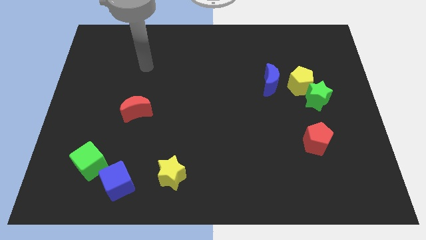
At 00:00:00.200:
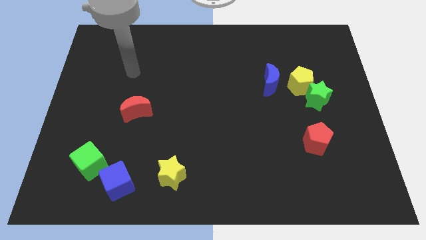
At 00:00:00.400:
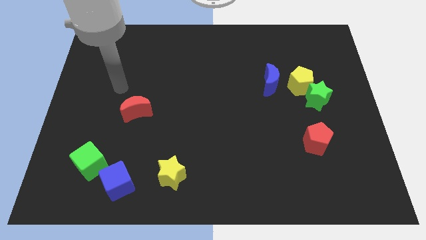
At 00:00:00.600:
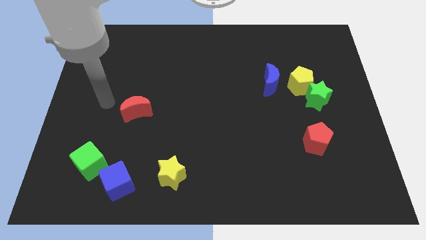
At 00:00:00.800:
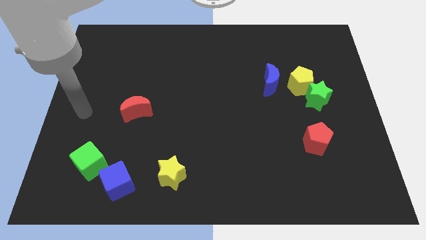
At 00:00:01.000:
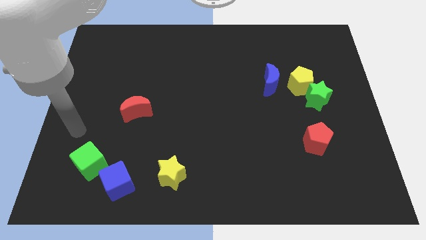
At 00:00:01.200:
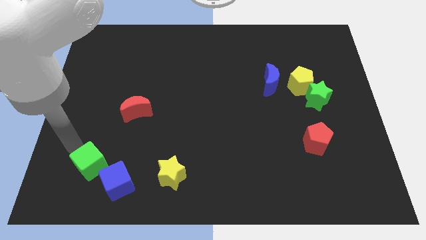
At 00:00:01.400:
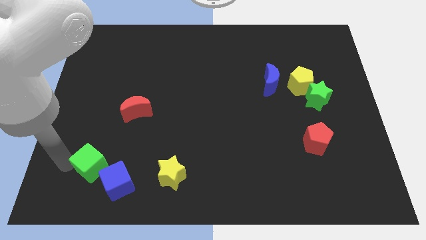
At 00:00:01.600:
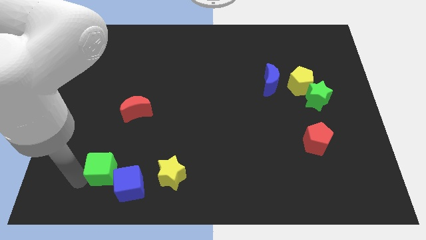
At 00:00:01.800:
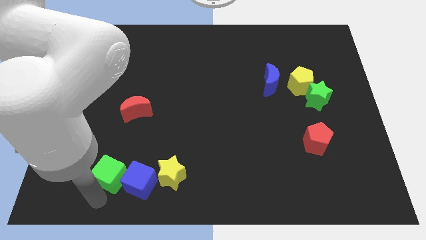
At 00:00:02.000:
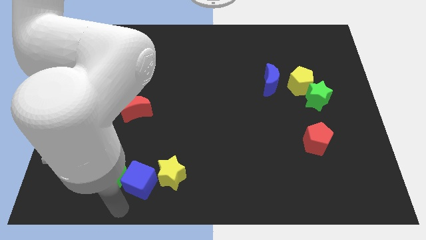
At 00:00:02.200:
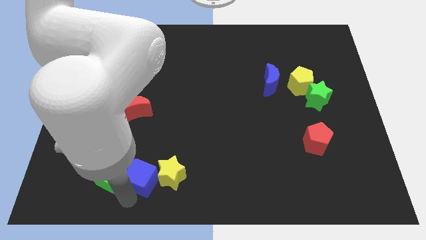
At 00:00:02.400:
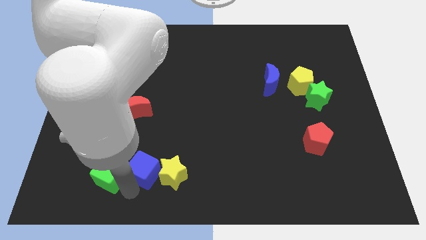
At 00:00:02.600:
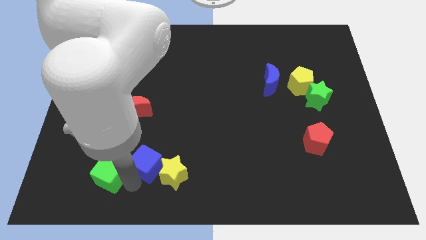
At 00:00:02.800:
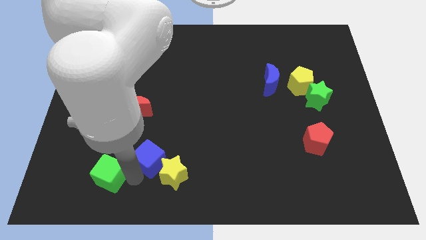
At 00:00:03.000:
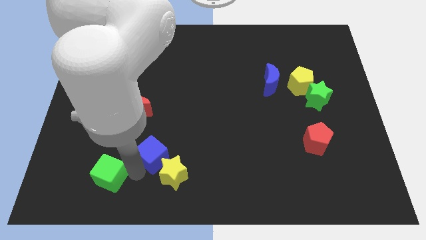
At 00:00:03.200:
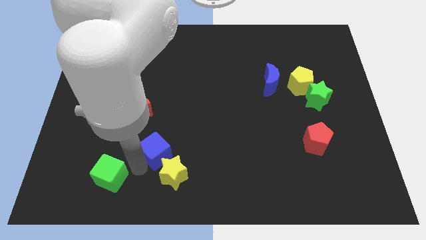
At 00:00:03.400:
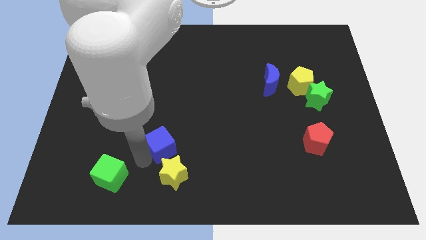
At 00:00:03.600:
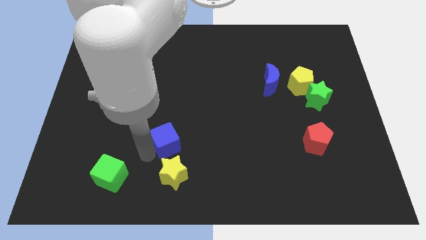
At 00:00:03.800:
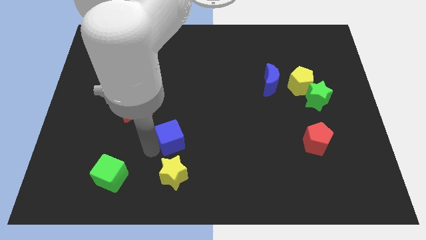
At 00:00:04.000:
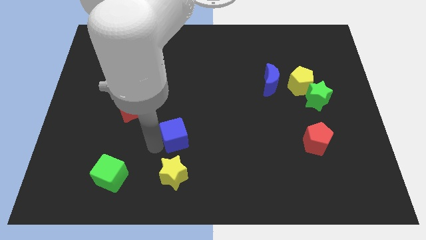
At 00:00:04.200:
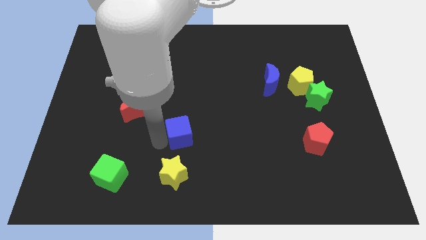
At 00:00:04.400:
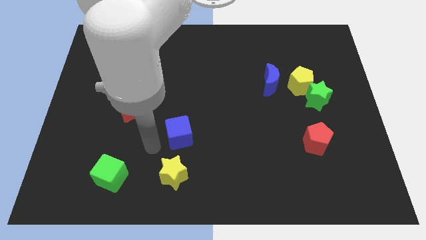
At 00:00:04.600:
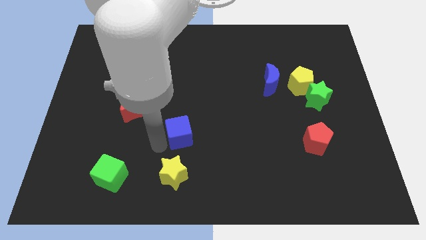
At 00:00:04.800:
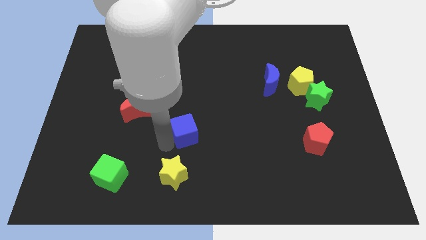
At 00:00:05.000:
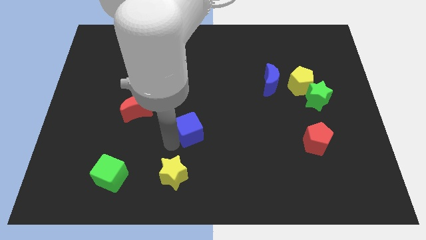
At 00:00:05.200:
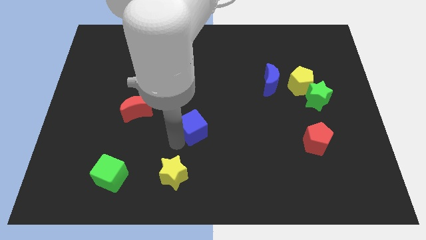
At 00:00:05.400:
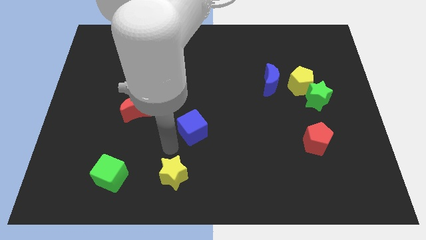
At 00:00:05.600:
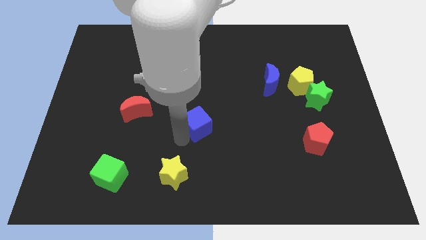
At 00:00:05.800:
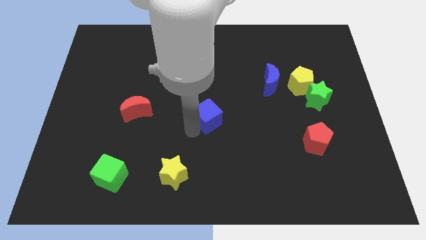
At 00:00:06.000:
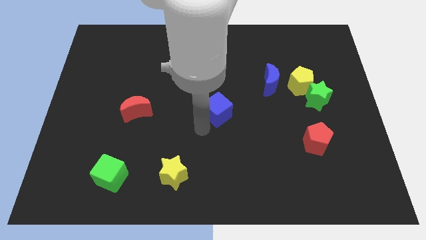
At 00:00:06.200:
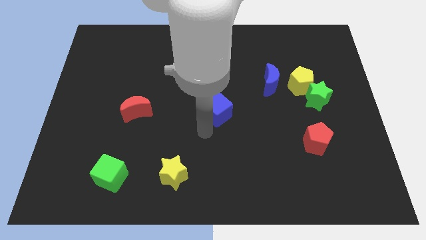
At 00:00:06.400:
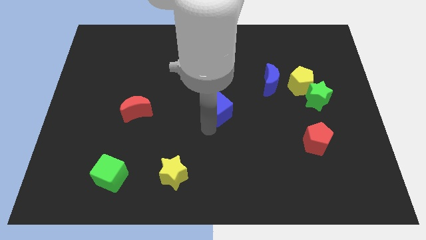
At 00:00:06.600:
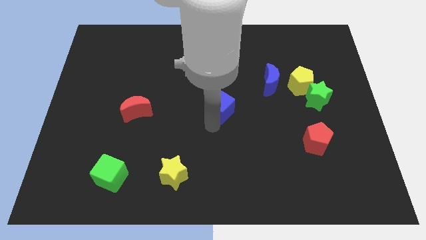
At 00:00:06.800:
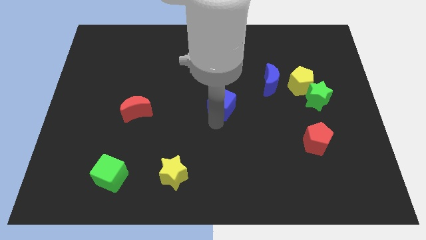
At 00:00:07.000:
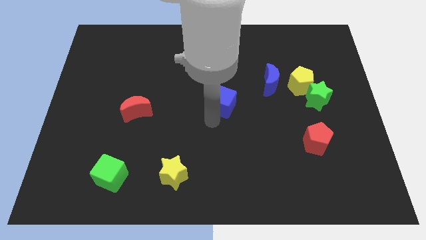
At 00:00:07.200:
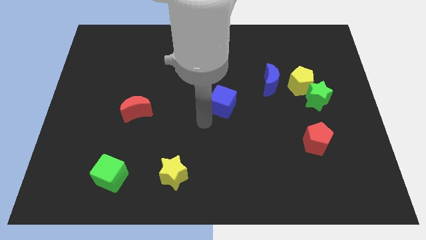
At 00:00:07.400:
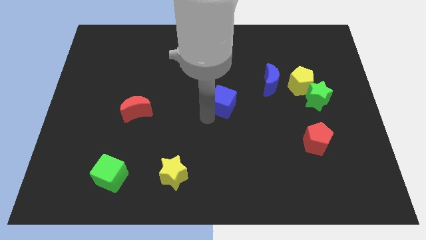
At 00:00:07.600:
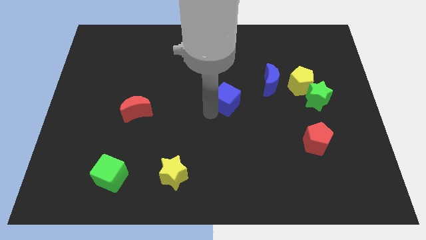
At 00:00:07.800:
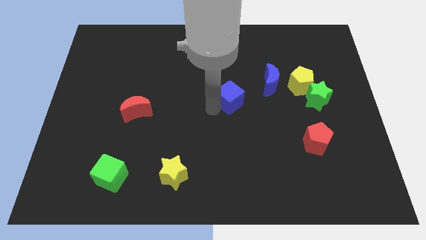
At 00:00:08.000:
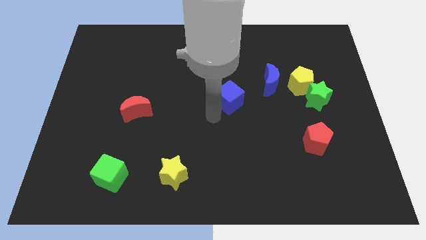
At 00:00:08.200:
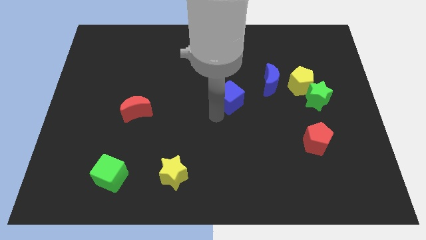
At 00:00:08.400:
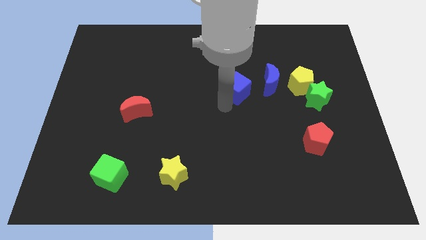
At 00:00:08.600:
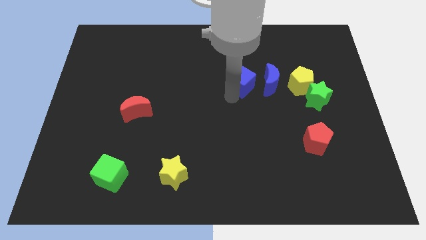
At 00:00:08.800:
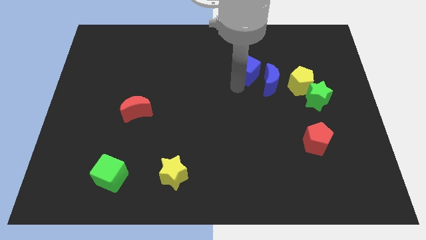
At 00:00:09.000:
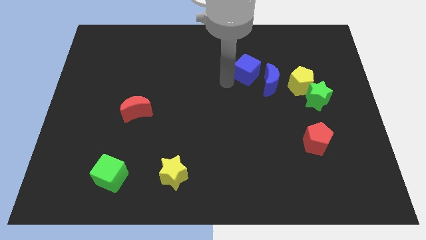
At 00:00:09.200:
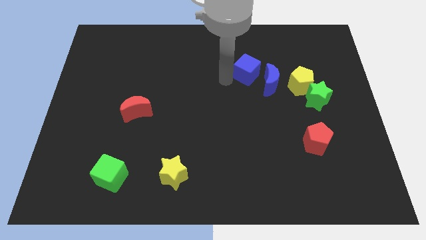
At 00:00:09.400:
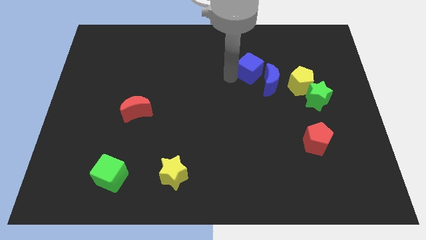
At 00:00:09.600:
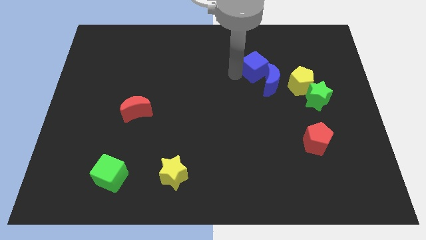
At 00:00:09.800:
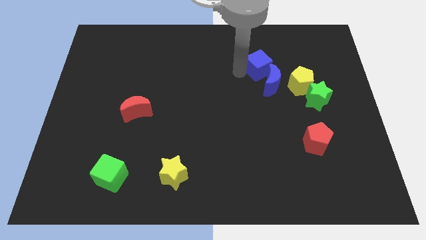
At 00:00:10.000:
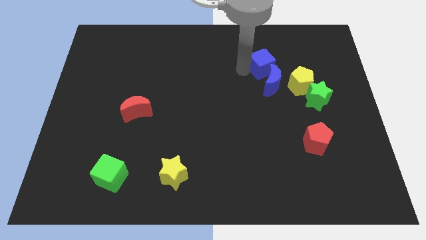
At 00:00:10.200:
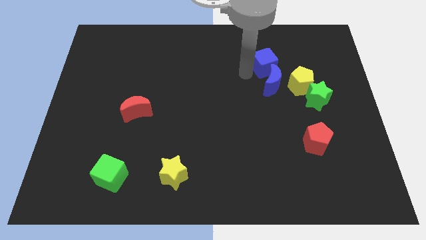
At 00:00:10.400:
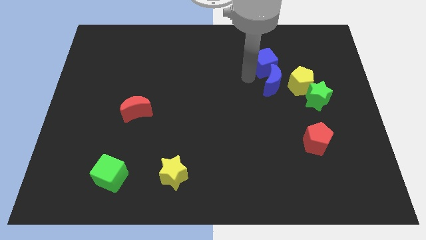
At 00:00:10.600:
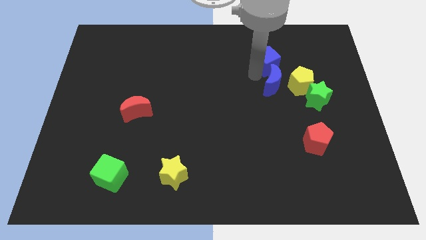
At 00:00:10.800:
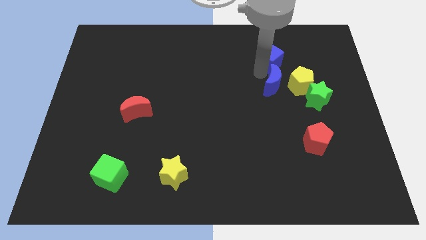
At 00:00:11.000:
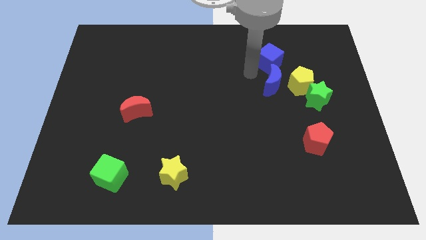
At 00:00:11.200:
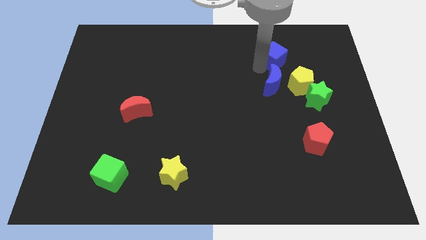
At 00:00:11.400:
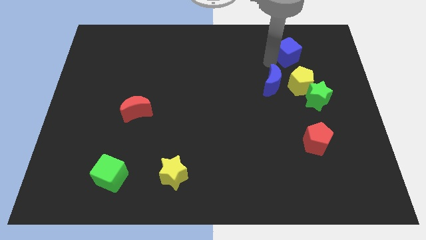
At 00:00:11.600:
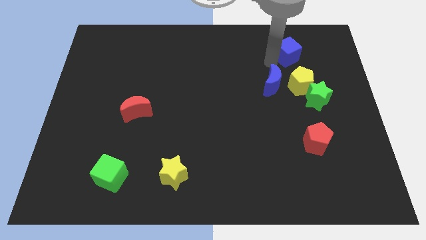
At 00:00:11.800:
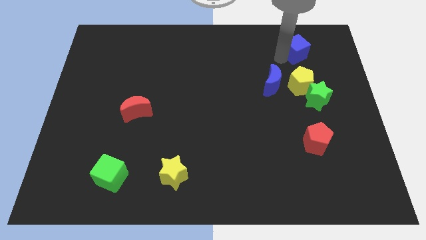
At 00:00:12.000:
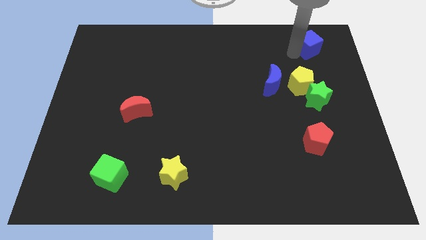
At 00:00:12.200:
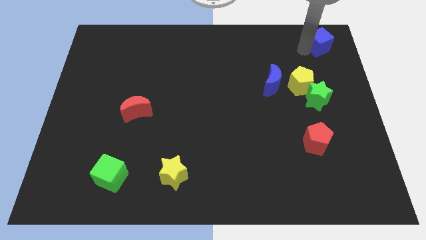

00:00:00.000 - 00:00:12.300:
slide the blue cube to the top right corner
